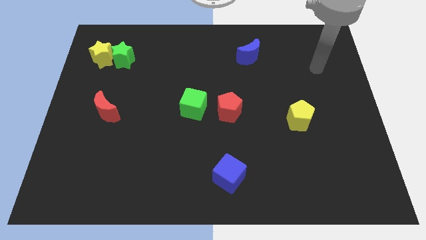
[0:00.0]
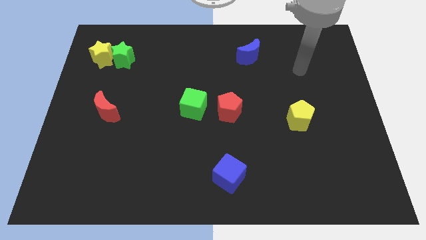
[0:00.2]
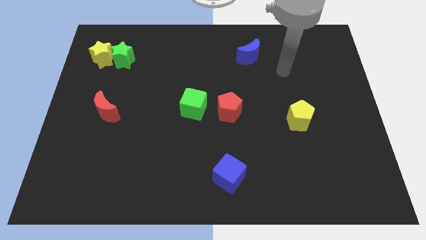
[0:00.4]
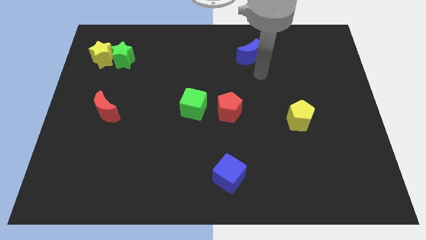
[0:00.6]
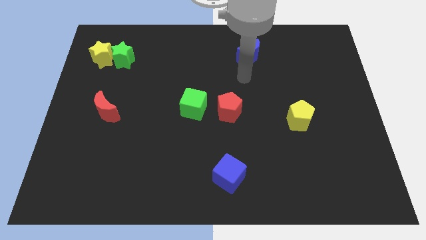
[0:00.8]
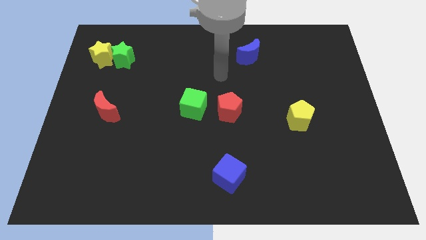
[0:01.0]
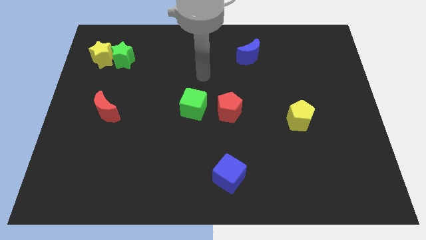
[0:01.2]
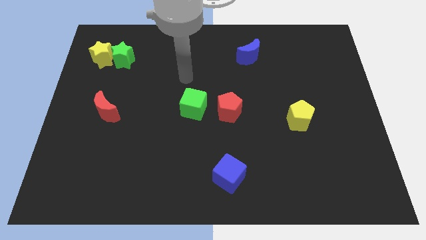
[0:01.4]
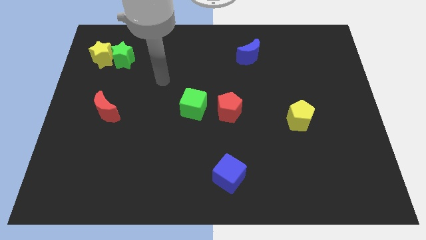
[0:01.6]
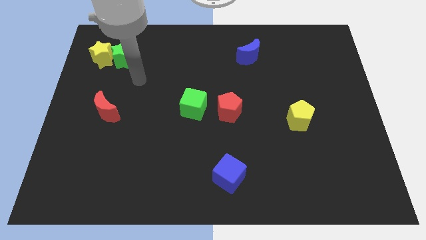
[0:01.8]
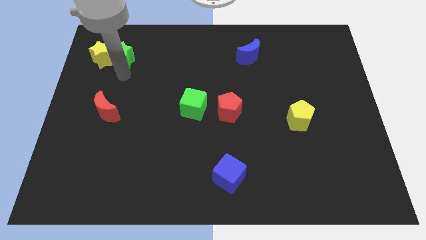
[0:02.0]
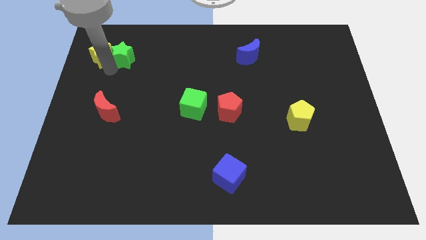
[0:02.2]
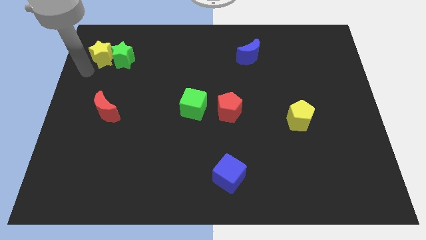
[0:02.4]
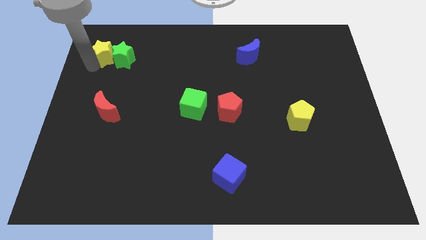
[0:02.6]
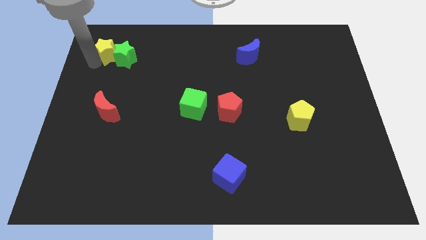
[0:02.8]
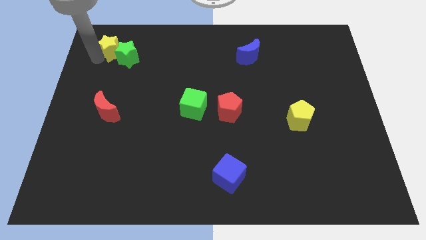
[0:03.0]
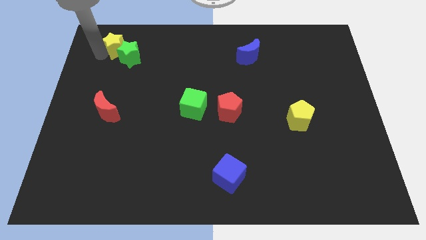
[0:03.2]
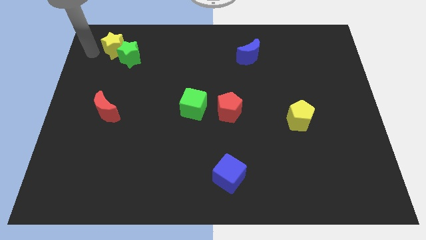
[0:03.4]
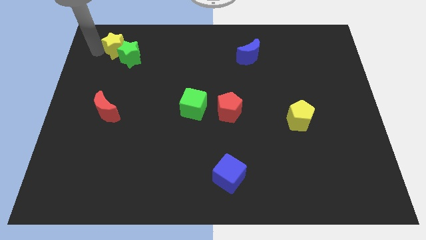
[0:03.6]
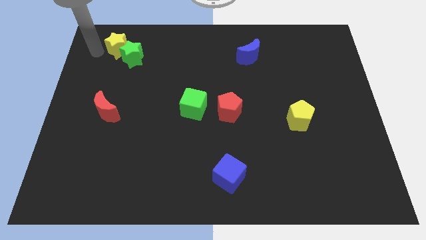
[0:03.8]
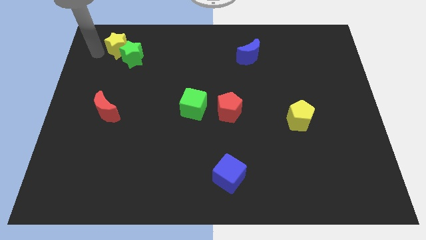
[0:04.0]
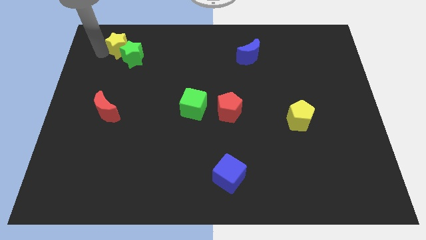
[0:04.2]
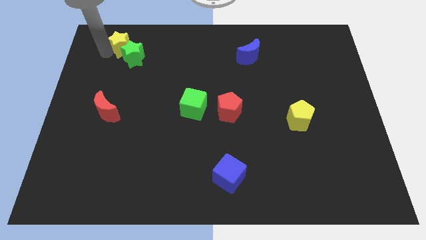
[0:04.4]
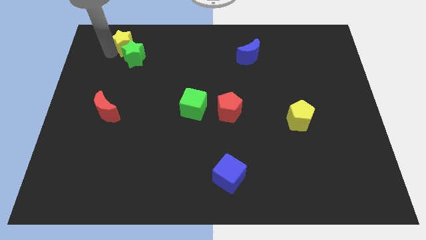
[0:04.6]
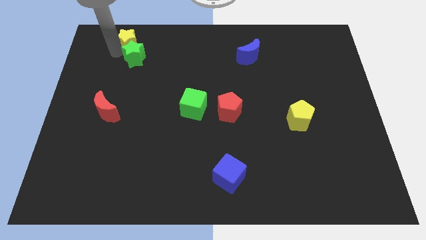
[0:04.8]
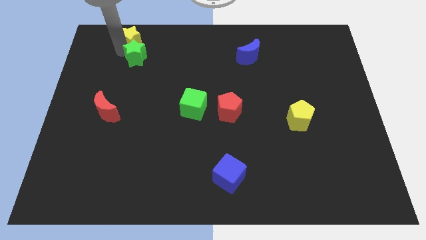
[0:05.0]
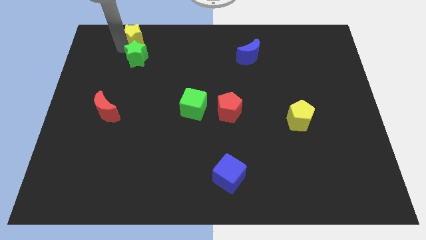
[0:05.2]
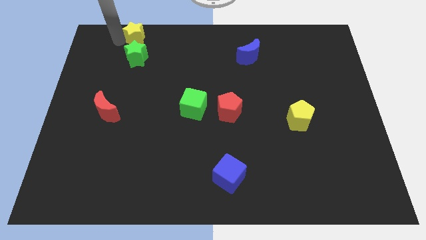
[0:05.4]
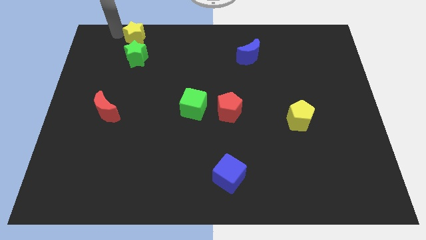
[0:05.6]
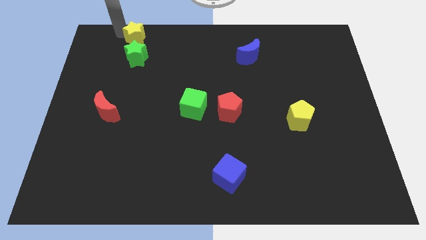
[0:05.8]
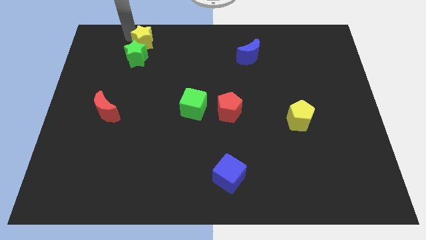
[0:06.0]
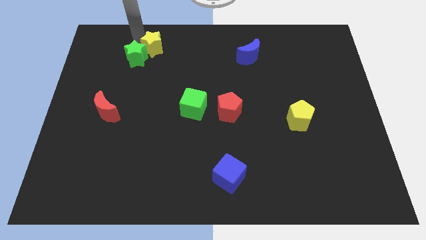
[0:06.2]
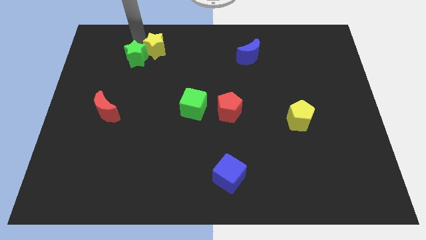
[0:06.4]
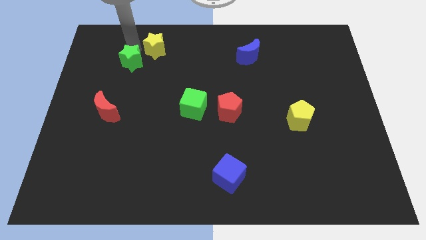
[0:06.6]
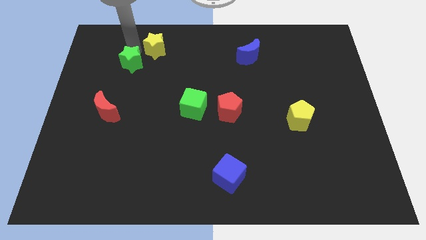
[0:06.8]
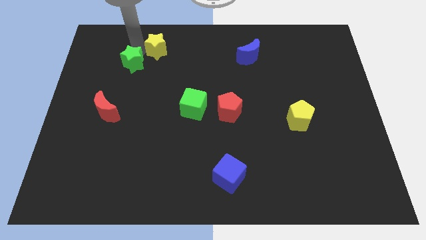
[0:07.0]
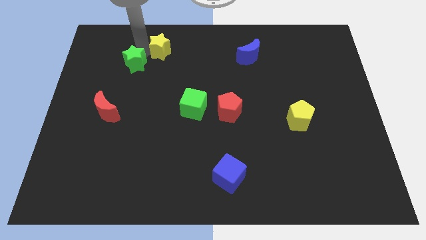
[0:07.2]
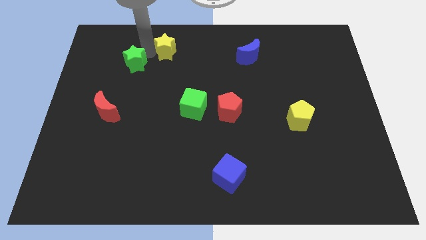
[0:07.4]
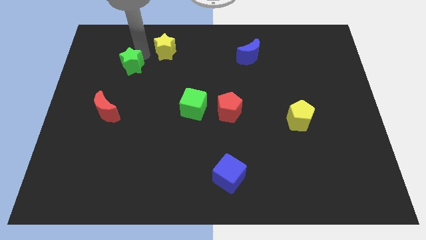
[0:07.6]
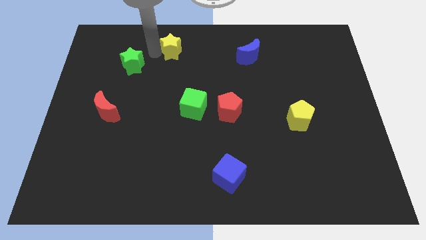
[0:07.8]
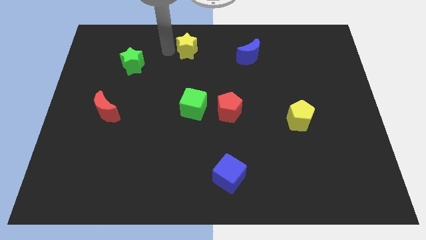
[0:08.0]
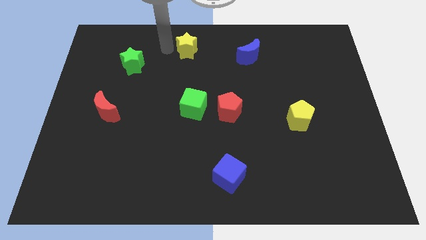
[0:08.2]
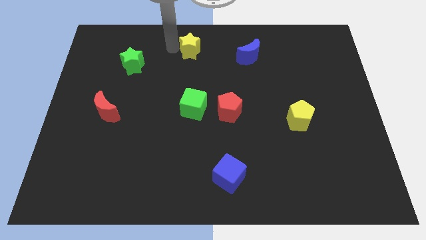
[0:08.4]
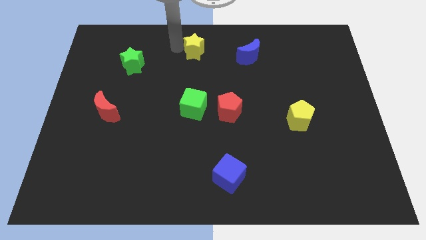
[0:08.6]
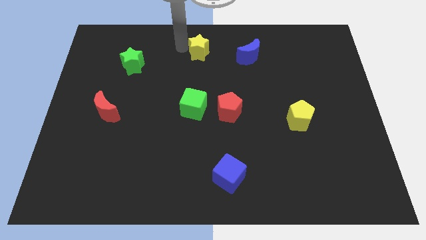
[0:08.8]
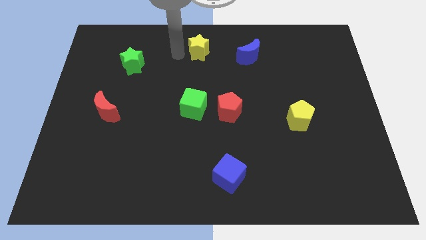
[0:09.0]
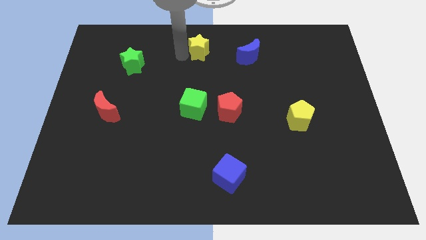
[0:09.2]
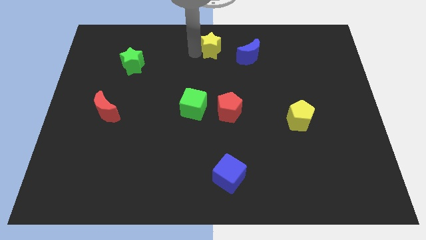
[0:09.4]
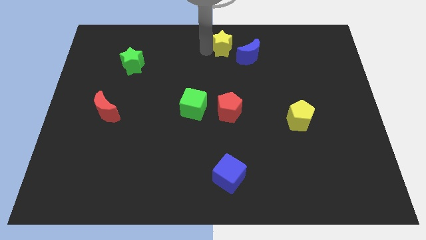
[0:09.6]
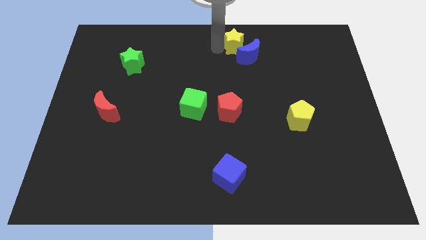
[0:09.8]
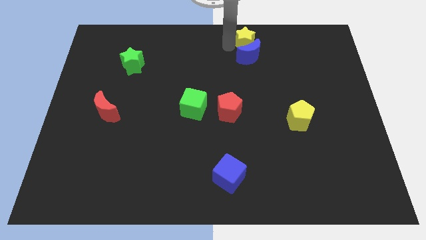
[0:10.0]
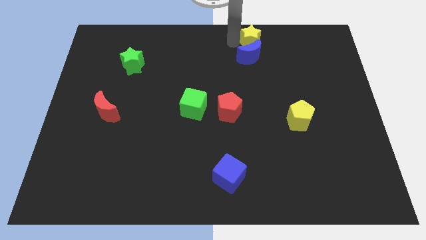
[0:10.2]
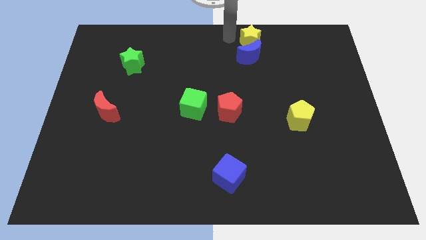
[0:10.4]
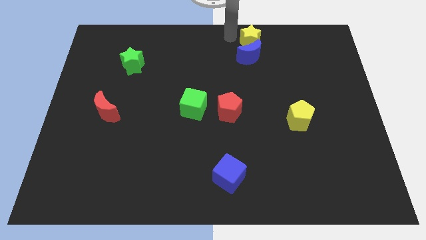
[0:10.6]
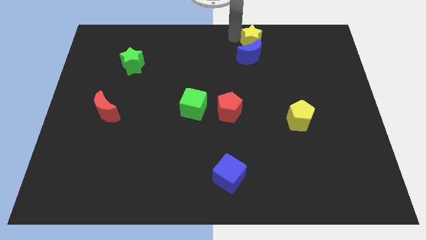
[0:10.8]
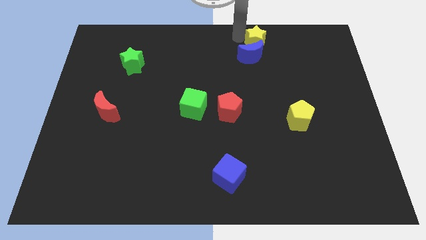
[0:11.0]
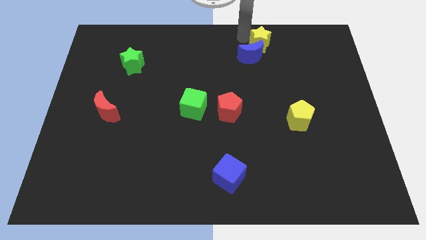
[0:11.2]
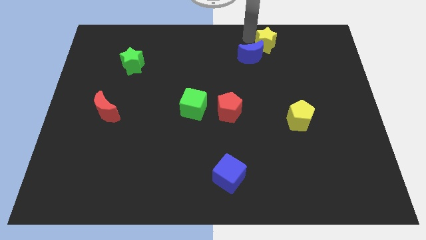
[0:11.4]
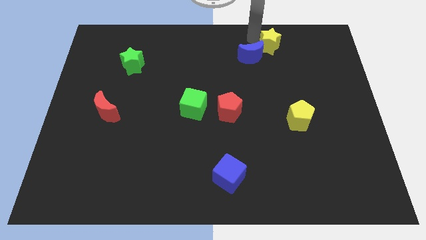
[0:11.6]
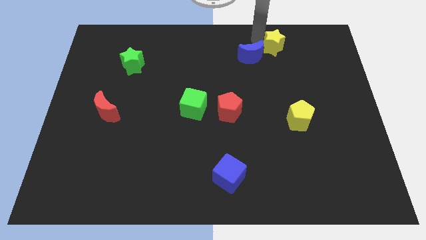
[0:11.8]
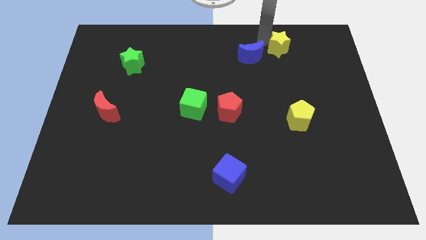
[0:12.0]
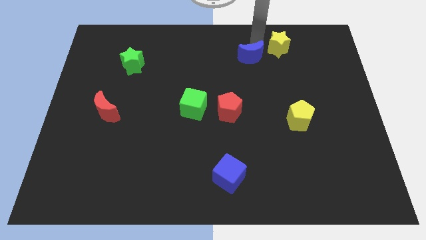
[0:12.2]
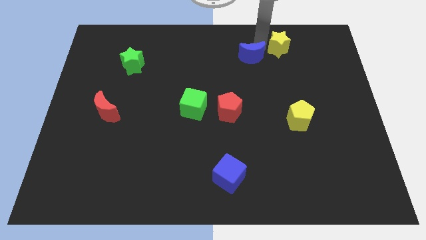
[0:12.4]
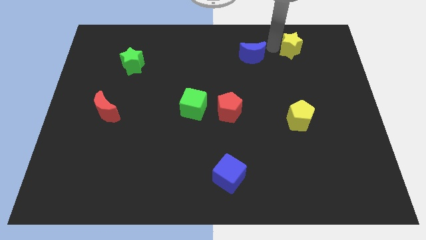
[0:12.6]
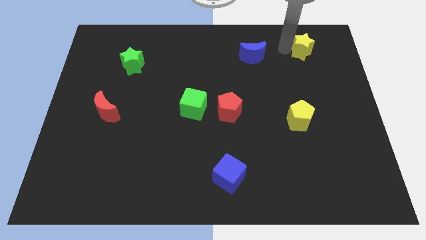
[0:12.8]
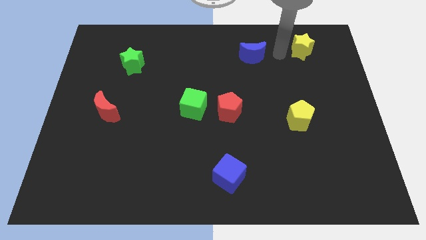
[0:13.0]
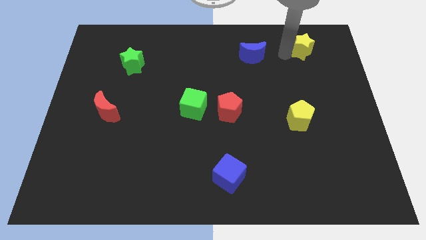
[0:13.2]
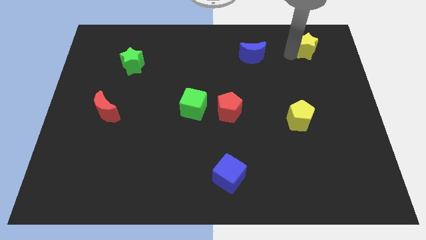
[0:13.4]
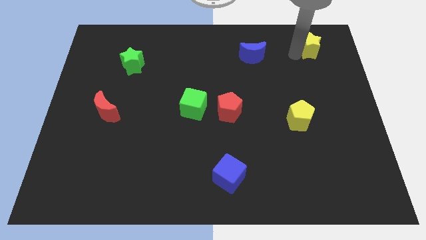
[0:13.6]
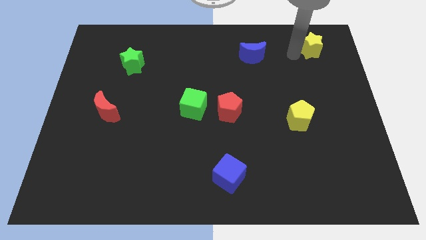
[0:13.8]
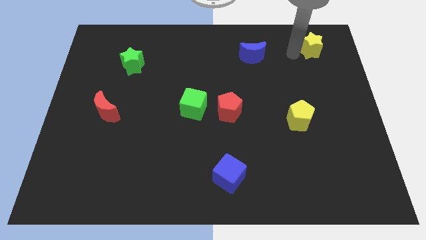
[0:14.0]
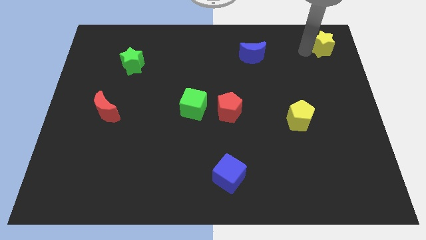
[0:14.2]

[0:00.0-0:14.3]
put the yellow star to the top right corner

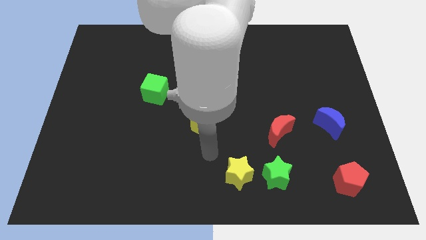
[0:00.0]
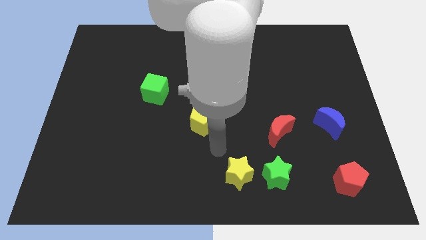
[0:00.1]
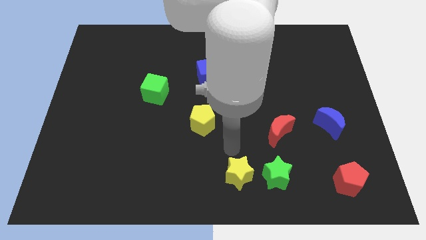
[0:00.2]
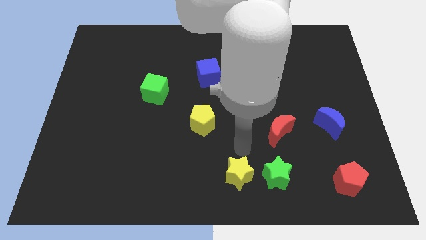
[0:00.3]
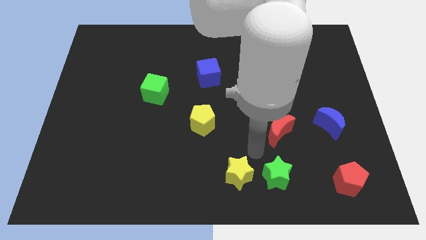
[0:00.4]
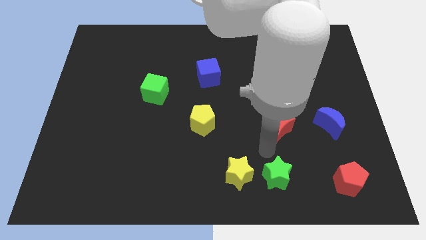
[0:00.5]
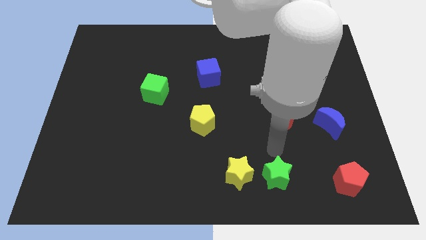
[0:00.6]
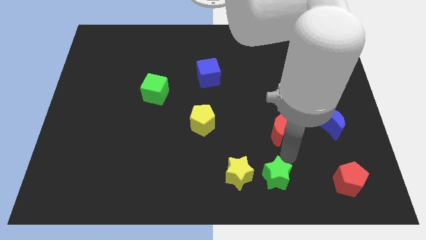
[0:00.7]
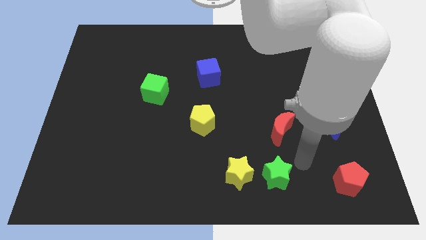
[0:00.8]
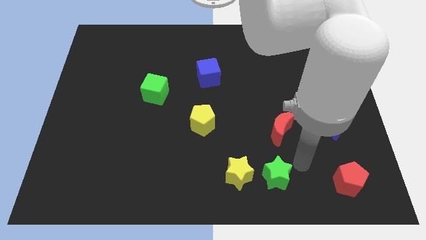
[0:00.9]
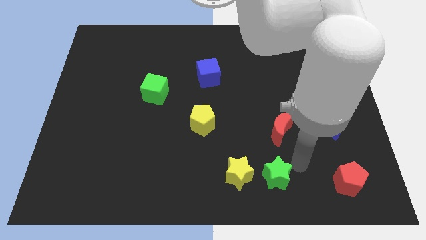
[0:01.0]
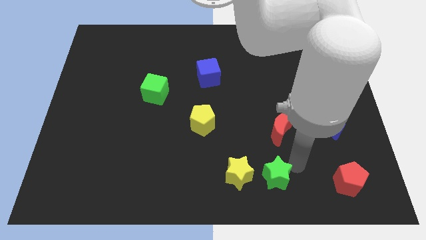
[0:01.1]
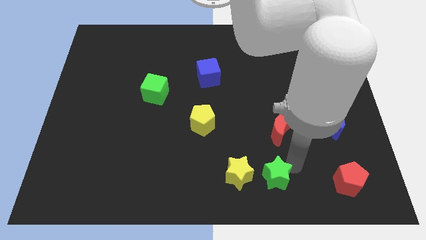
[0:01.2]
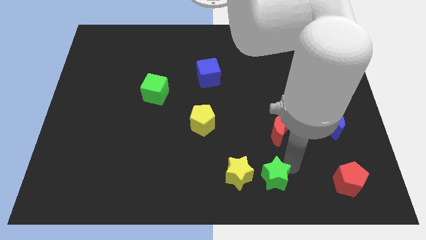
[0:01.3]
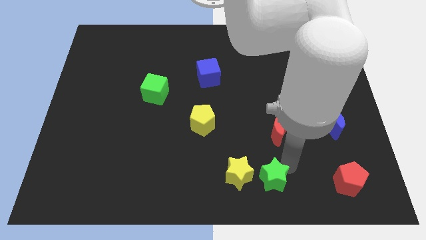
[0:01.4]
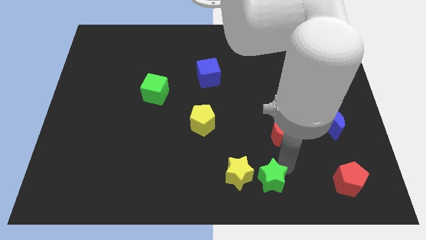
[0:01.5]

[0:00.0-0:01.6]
slide the green star to the bottom side
